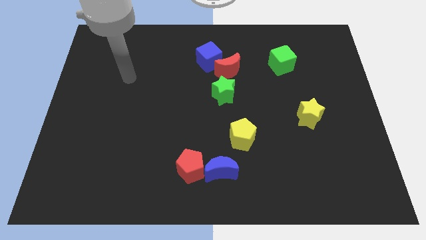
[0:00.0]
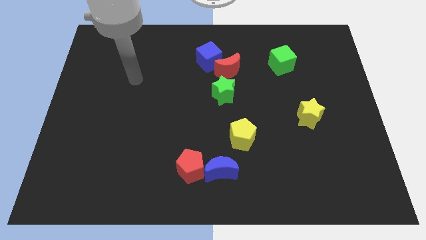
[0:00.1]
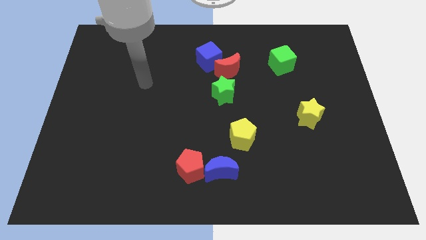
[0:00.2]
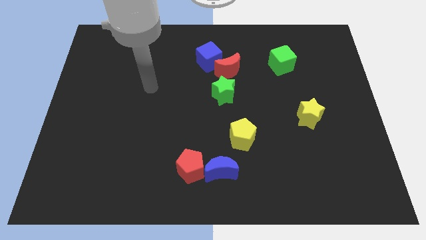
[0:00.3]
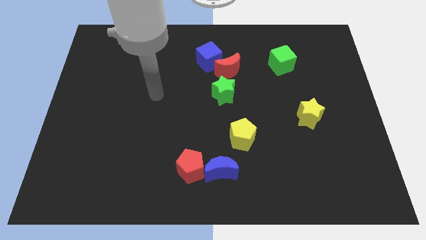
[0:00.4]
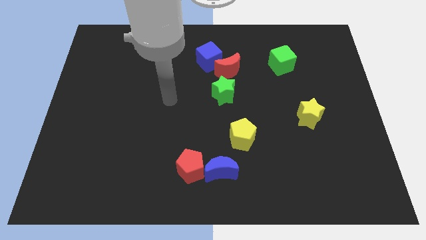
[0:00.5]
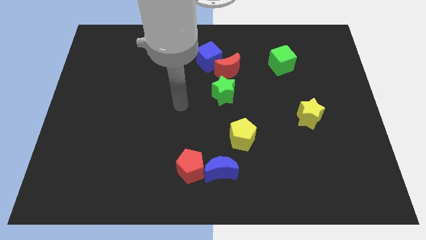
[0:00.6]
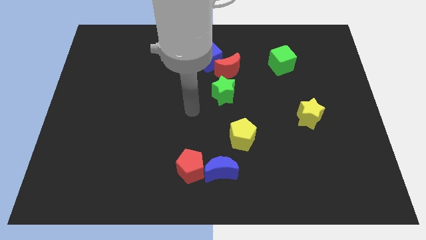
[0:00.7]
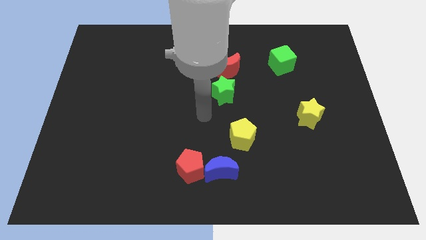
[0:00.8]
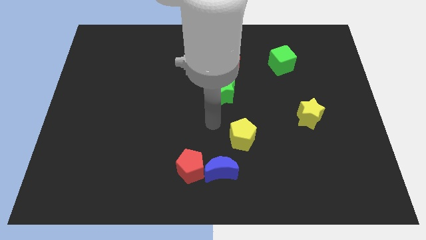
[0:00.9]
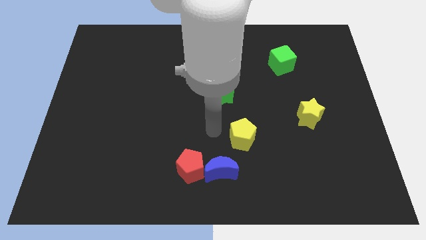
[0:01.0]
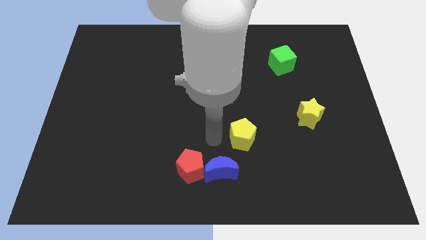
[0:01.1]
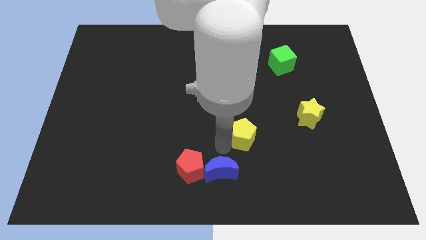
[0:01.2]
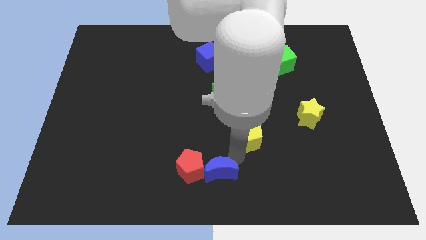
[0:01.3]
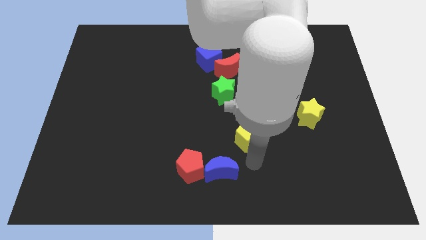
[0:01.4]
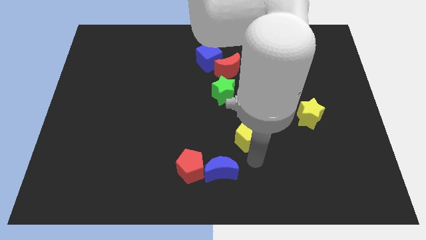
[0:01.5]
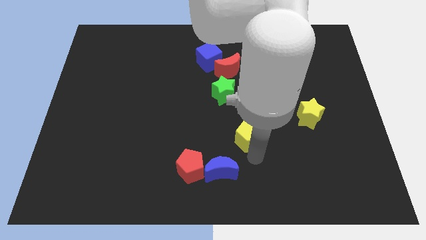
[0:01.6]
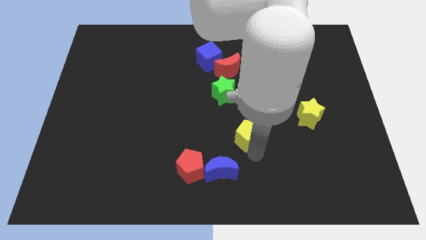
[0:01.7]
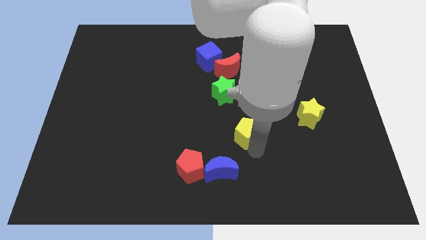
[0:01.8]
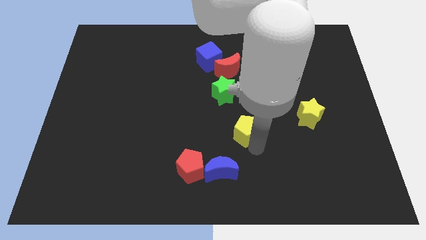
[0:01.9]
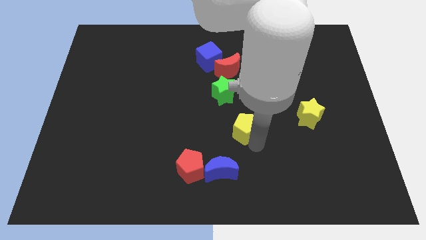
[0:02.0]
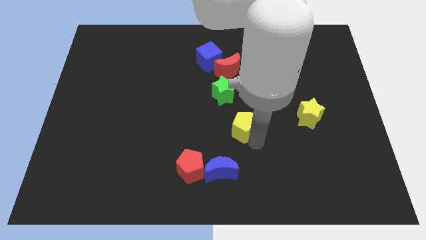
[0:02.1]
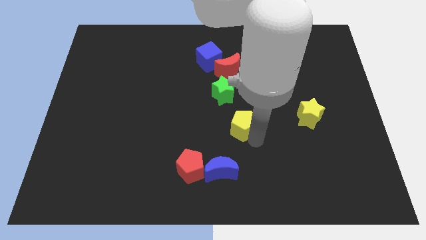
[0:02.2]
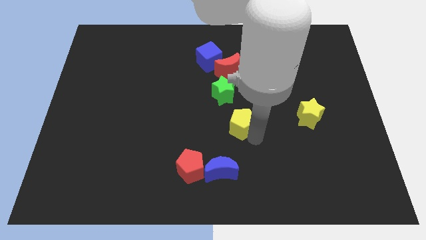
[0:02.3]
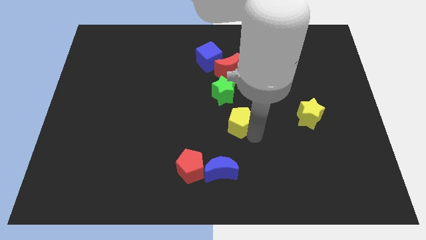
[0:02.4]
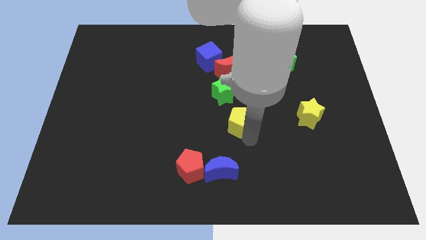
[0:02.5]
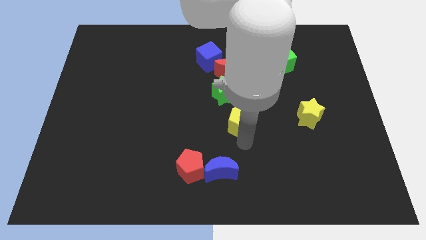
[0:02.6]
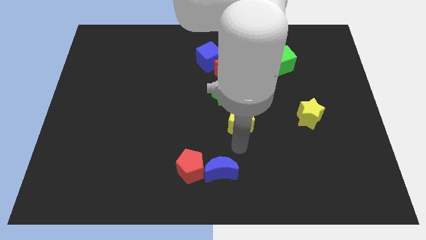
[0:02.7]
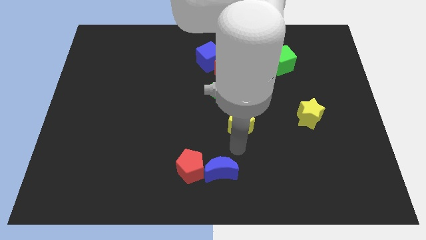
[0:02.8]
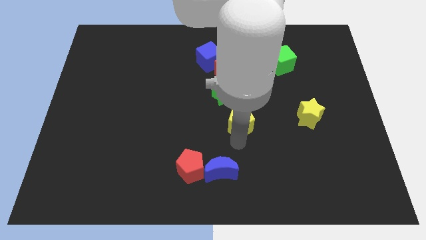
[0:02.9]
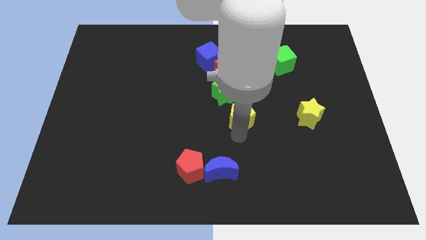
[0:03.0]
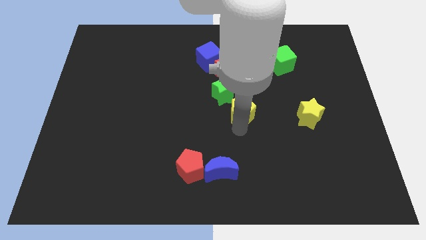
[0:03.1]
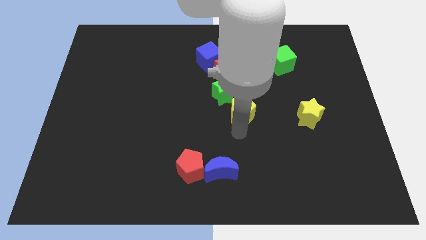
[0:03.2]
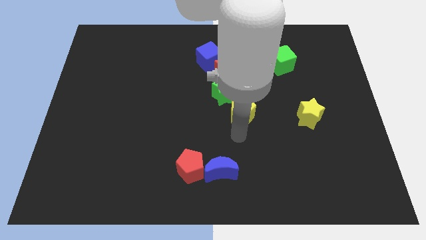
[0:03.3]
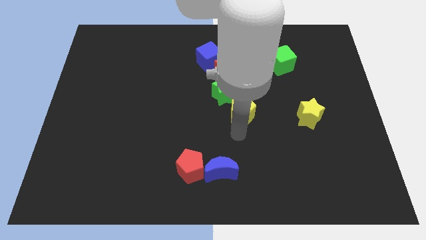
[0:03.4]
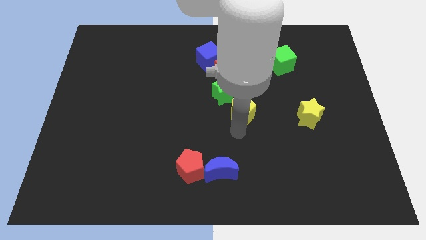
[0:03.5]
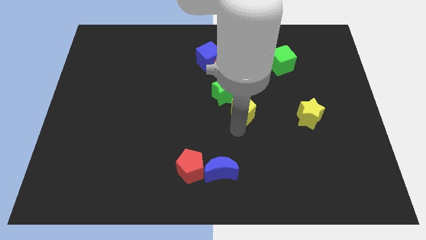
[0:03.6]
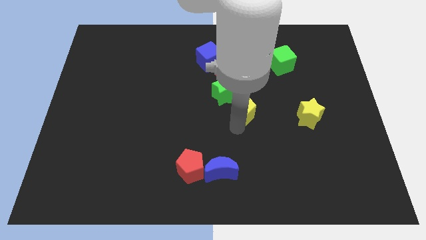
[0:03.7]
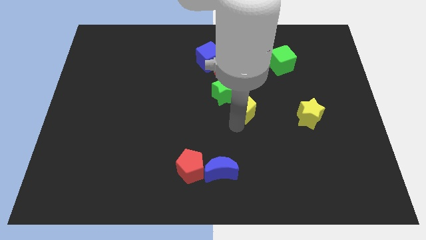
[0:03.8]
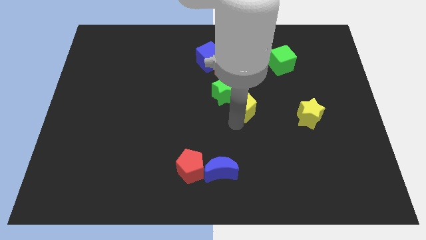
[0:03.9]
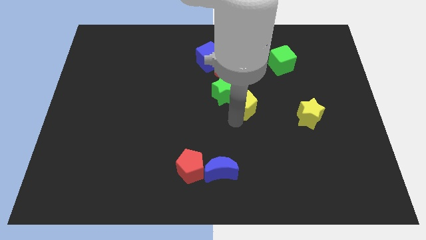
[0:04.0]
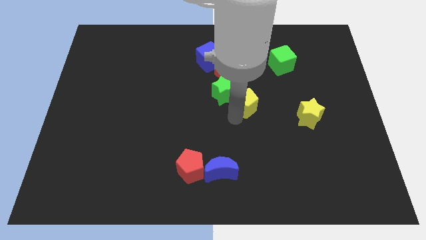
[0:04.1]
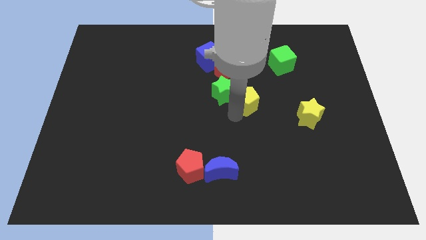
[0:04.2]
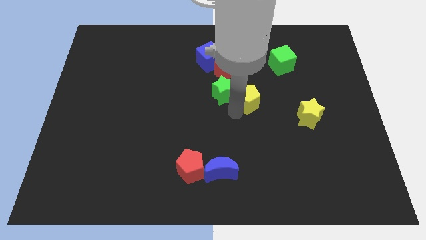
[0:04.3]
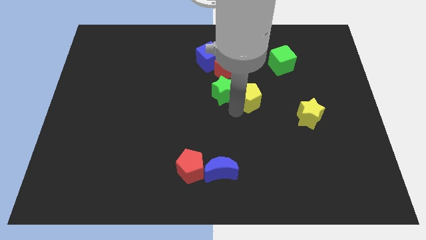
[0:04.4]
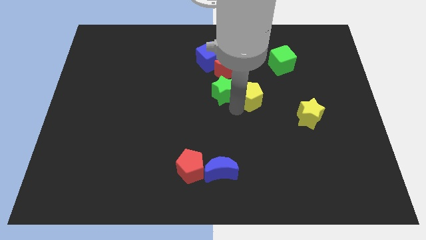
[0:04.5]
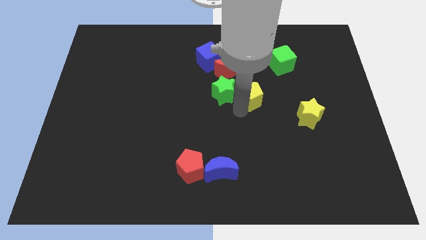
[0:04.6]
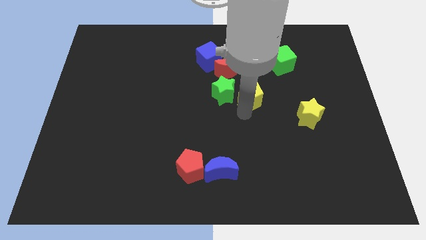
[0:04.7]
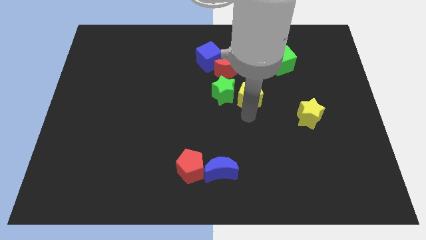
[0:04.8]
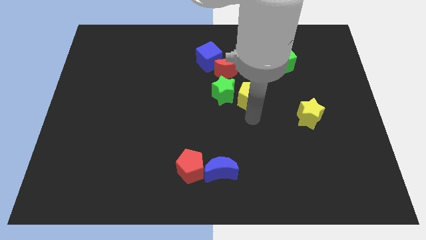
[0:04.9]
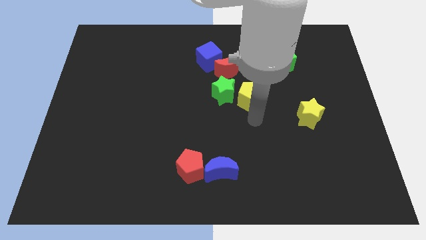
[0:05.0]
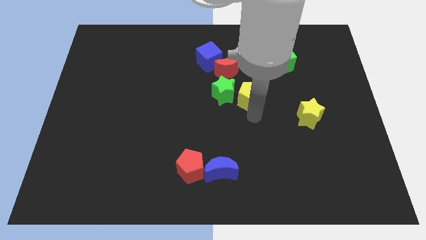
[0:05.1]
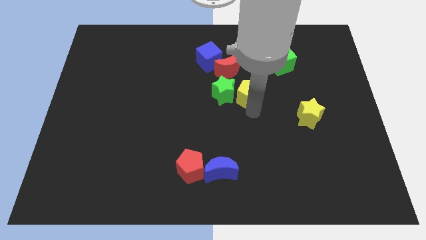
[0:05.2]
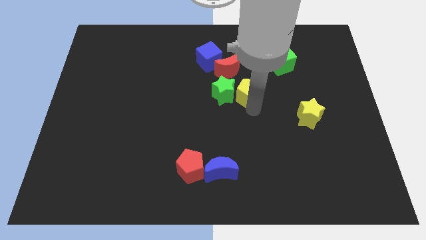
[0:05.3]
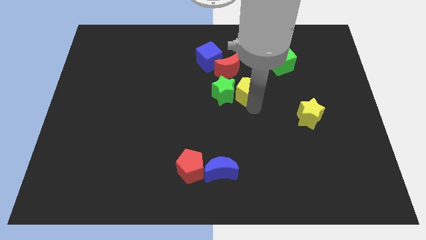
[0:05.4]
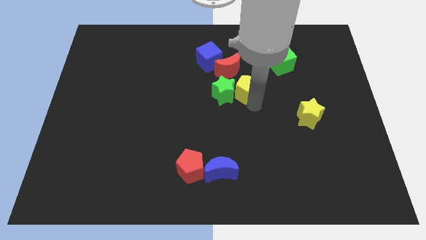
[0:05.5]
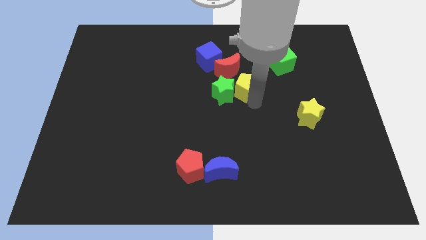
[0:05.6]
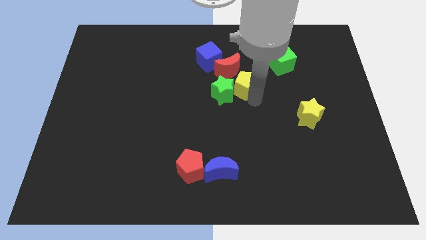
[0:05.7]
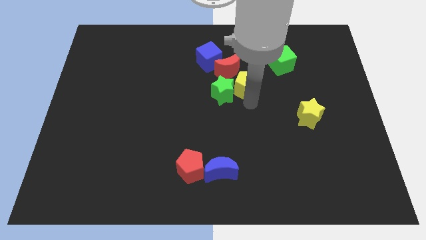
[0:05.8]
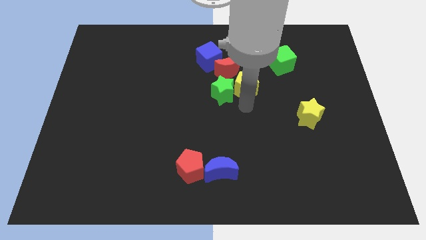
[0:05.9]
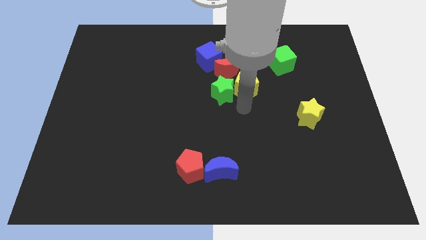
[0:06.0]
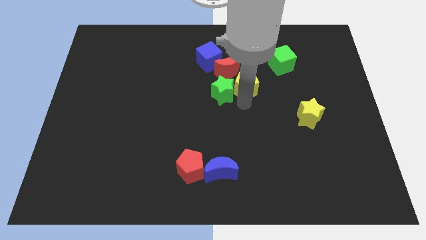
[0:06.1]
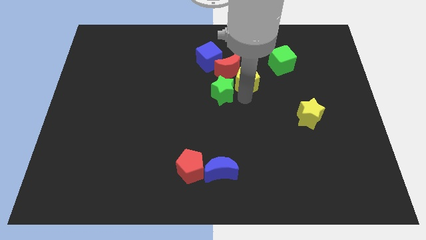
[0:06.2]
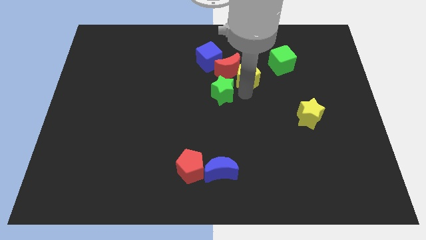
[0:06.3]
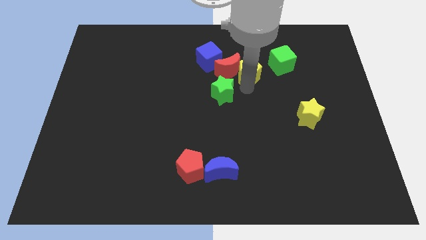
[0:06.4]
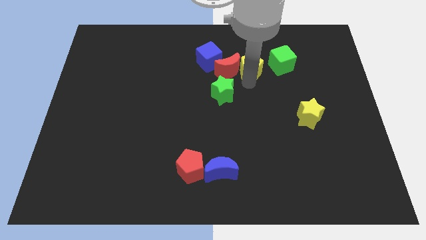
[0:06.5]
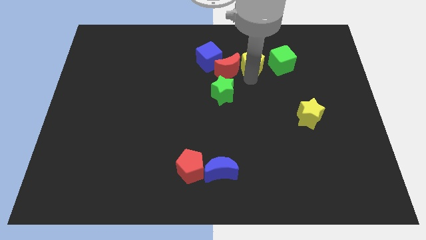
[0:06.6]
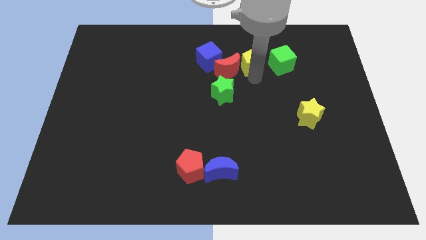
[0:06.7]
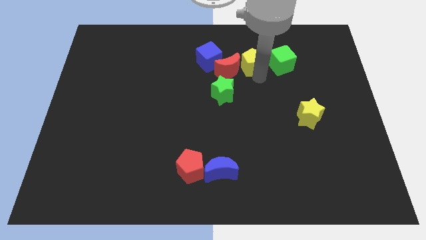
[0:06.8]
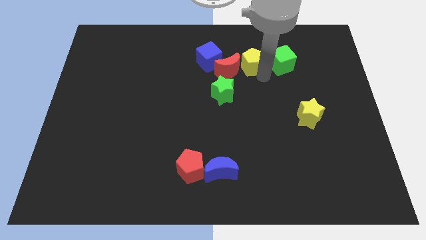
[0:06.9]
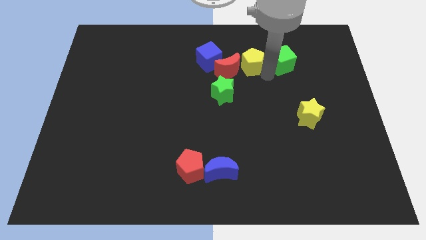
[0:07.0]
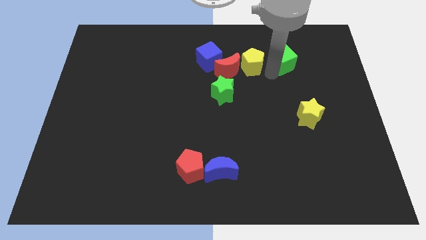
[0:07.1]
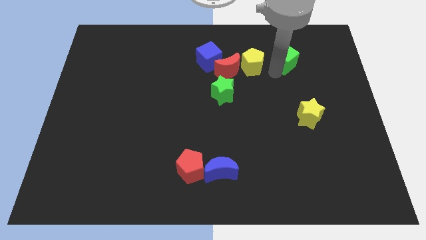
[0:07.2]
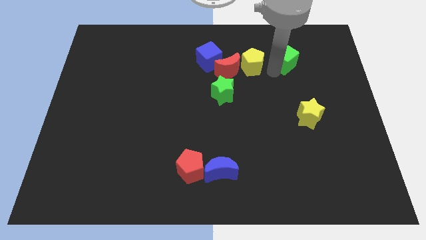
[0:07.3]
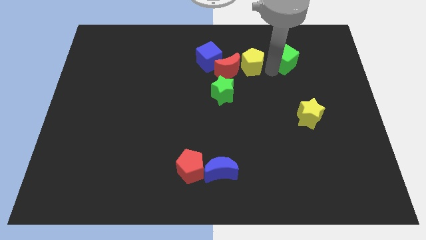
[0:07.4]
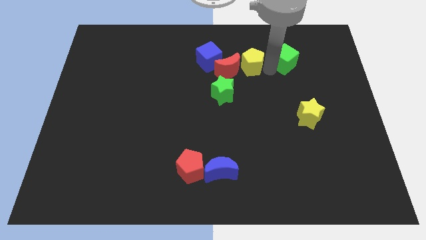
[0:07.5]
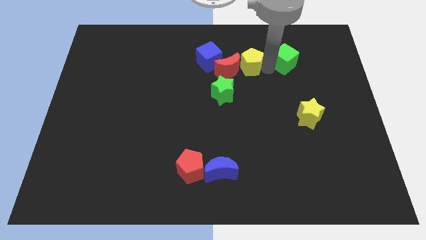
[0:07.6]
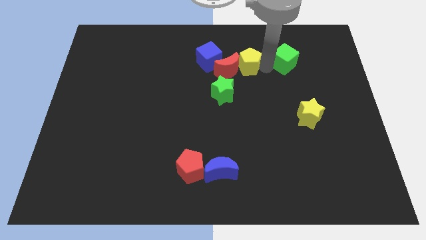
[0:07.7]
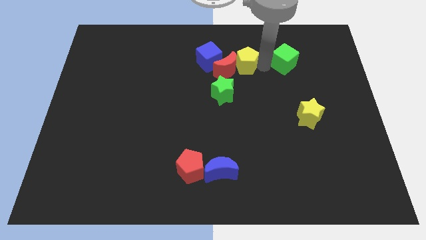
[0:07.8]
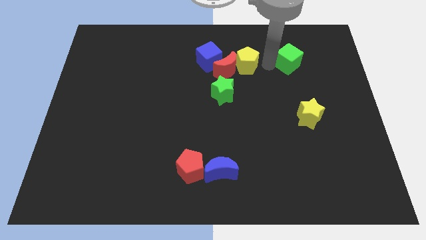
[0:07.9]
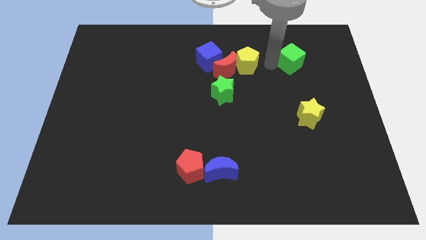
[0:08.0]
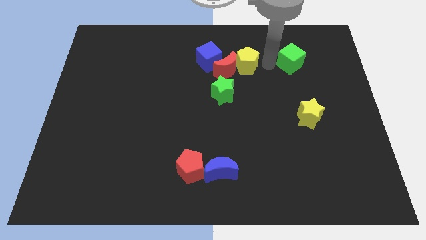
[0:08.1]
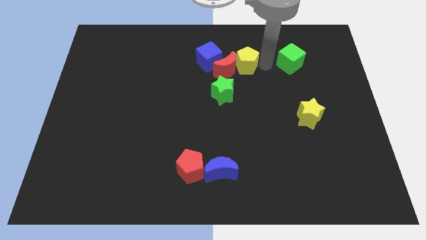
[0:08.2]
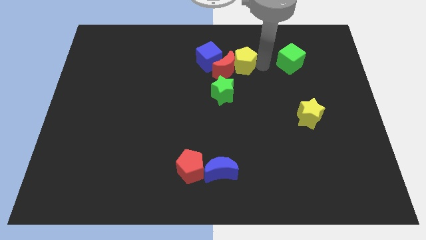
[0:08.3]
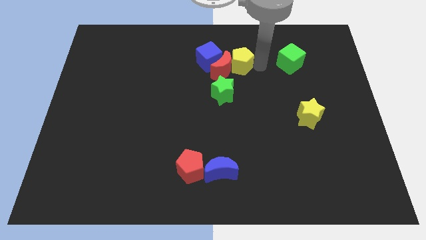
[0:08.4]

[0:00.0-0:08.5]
slide the yellow pentagon above the green star
